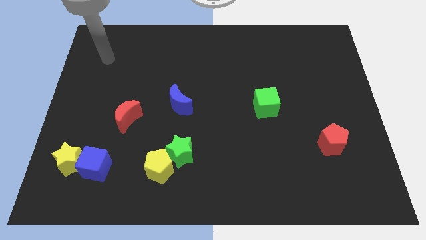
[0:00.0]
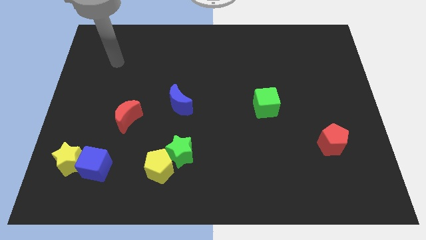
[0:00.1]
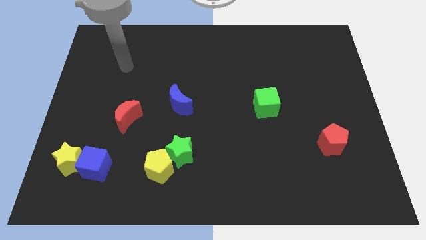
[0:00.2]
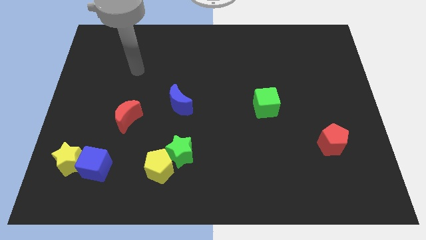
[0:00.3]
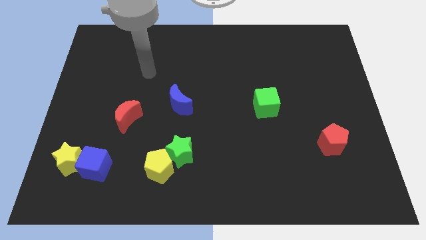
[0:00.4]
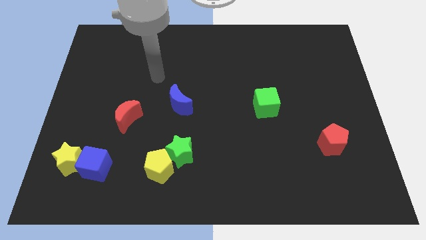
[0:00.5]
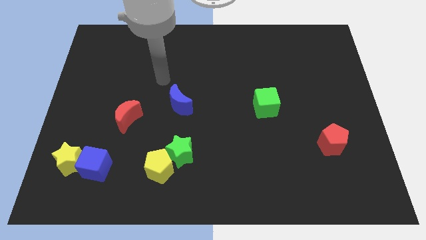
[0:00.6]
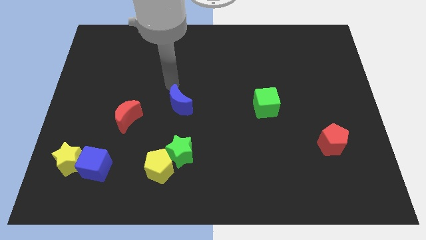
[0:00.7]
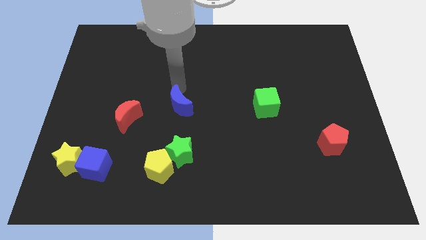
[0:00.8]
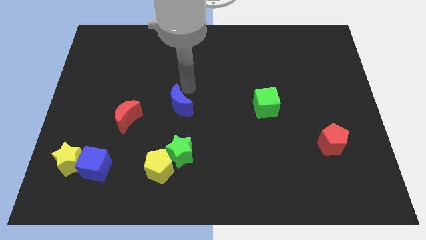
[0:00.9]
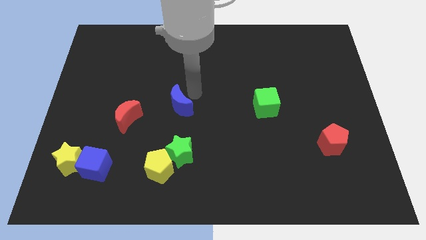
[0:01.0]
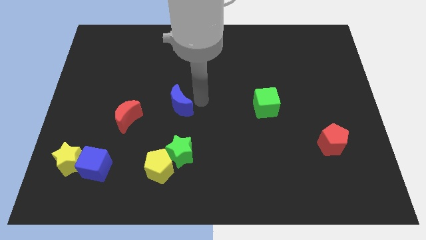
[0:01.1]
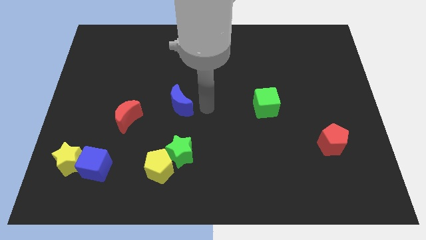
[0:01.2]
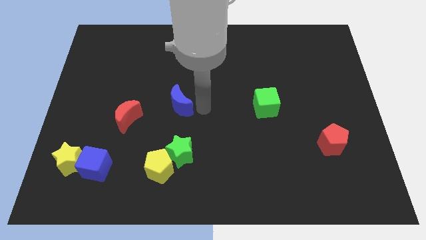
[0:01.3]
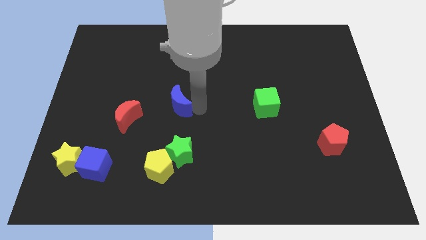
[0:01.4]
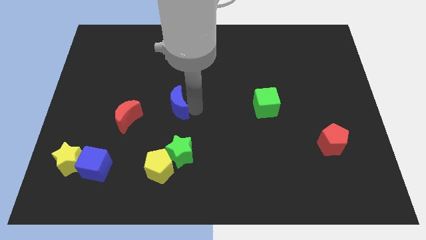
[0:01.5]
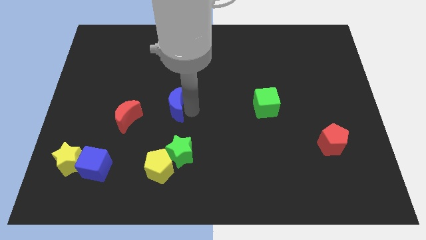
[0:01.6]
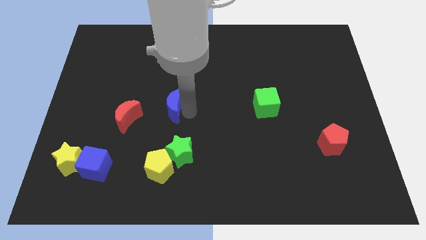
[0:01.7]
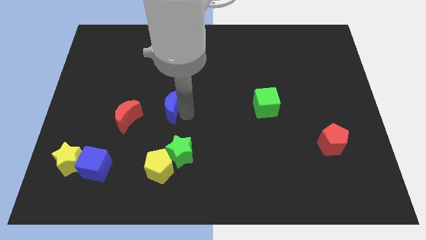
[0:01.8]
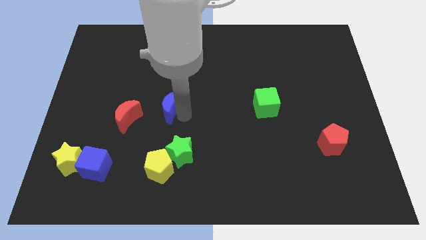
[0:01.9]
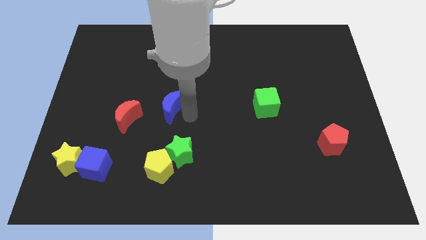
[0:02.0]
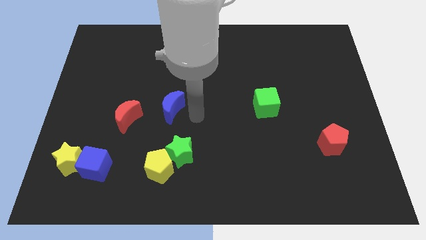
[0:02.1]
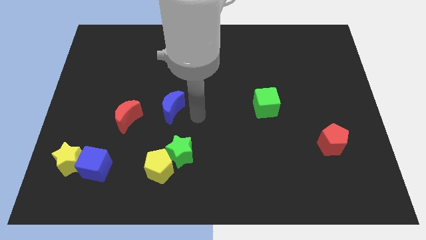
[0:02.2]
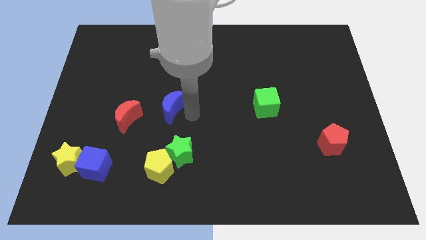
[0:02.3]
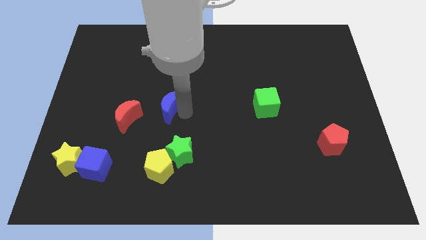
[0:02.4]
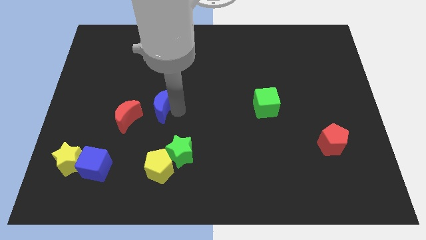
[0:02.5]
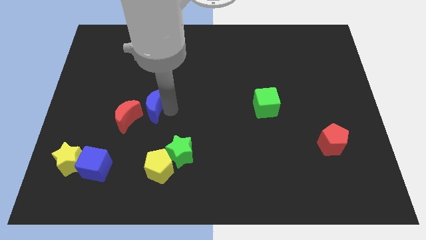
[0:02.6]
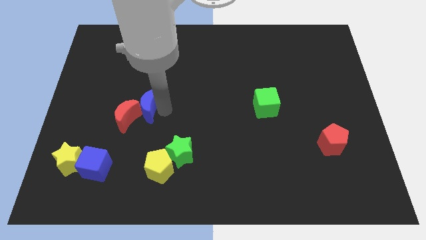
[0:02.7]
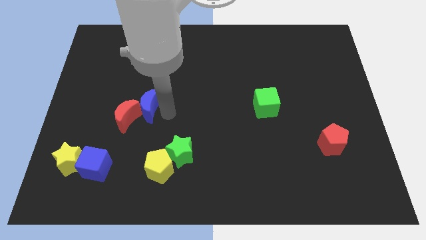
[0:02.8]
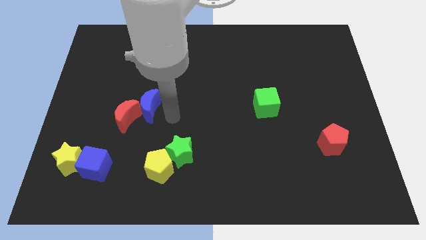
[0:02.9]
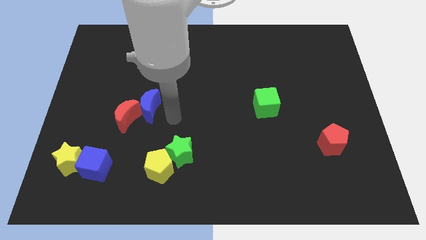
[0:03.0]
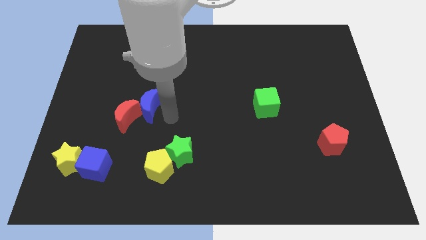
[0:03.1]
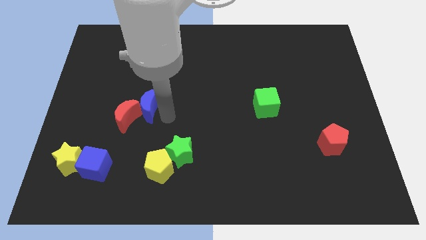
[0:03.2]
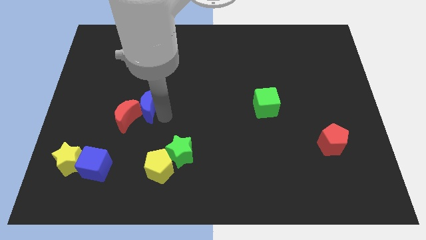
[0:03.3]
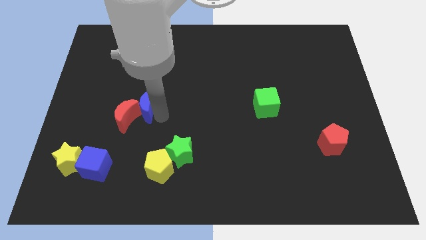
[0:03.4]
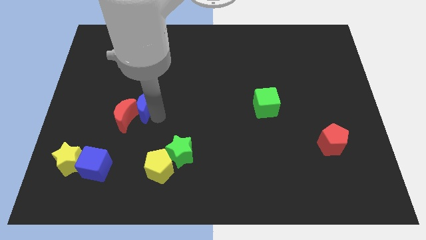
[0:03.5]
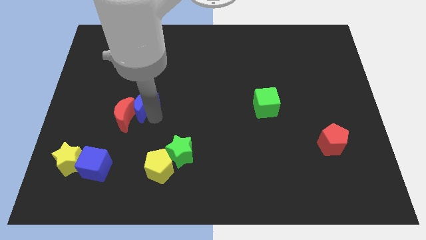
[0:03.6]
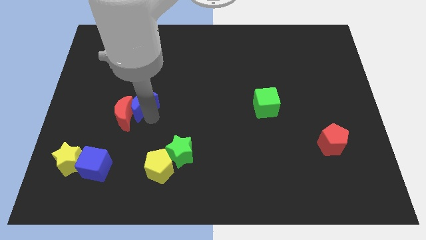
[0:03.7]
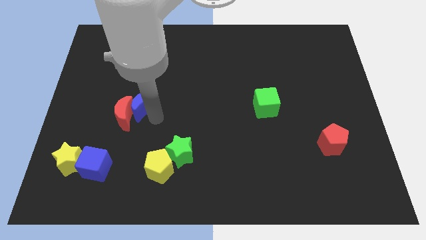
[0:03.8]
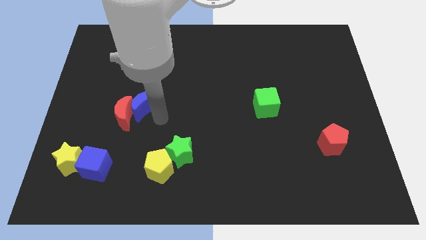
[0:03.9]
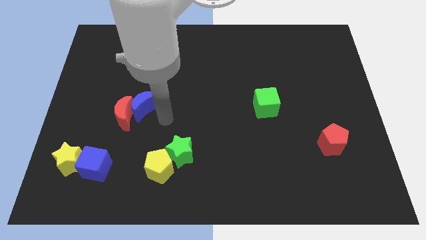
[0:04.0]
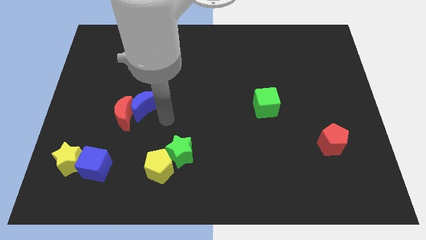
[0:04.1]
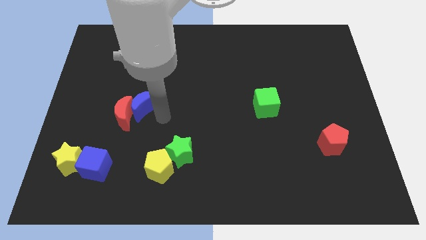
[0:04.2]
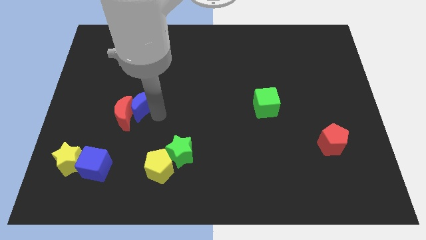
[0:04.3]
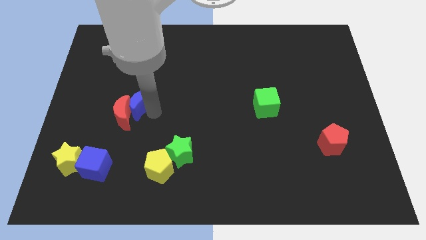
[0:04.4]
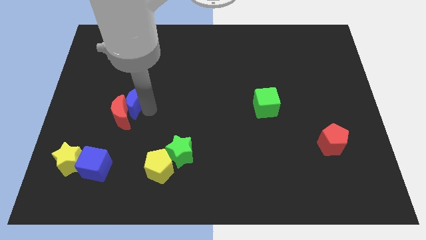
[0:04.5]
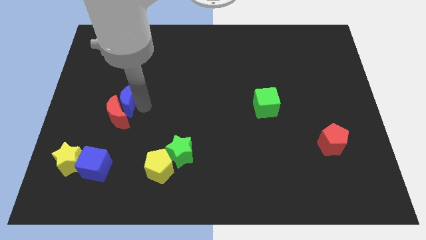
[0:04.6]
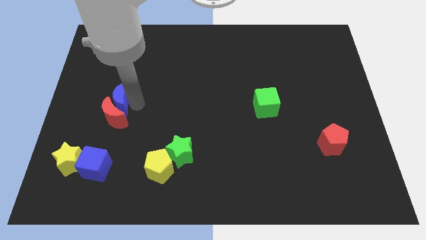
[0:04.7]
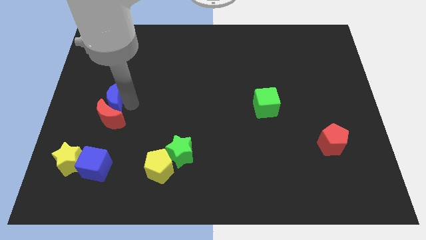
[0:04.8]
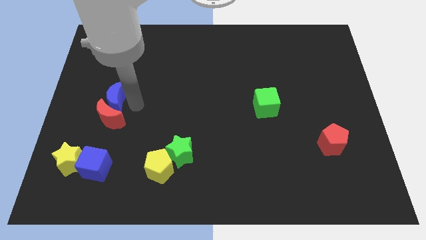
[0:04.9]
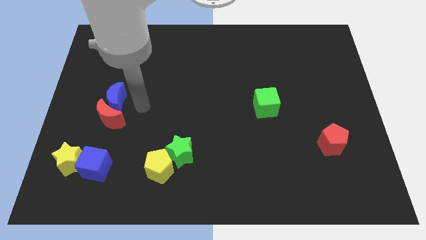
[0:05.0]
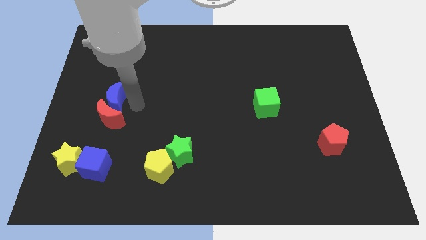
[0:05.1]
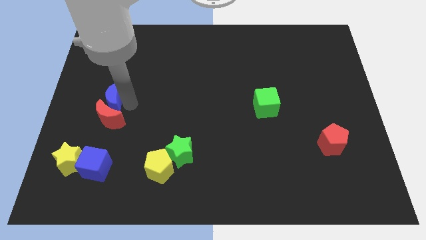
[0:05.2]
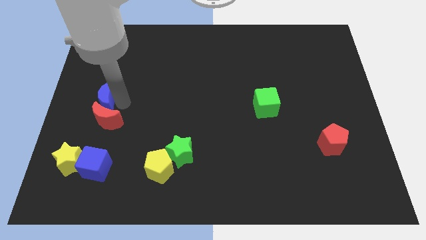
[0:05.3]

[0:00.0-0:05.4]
slide the blue moon to the left side of the board

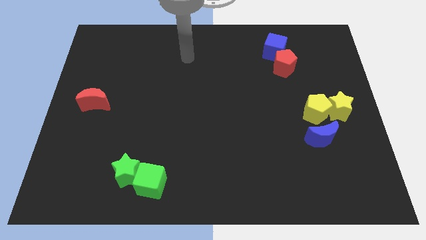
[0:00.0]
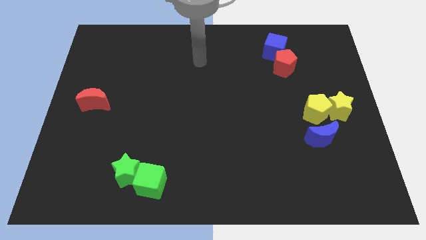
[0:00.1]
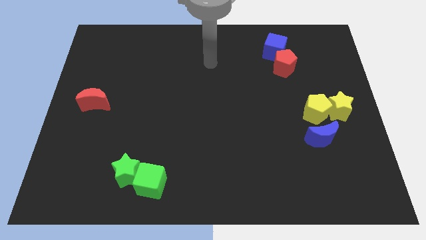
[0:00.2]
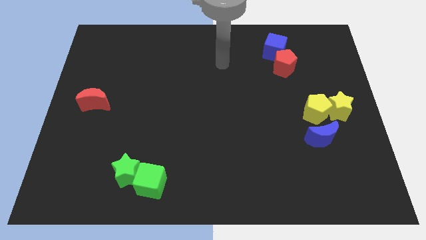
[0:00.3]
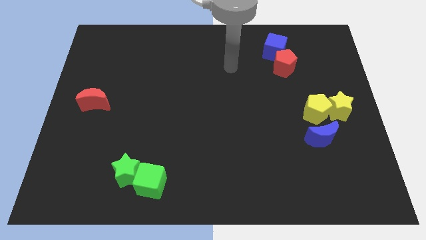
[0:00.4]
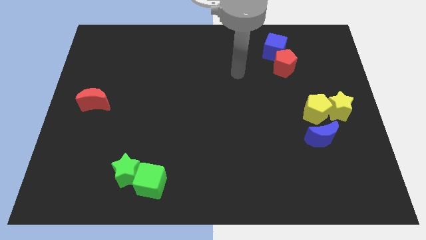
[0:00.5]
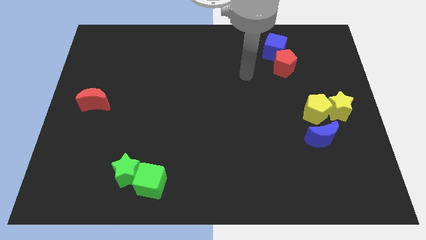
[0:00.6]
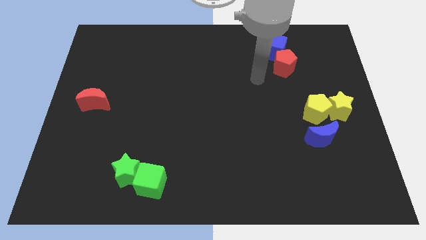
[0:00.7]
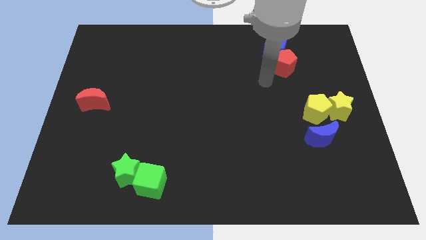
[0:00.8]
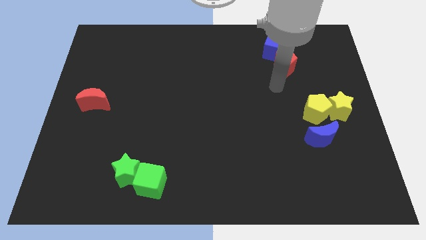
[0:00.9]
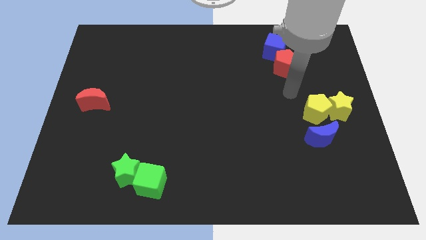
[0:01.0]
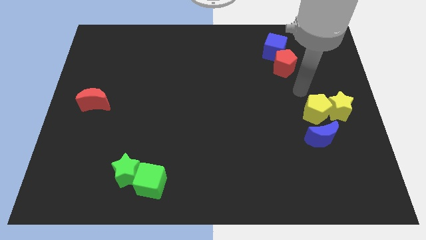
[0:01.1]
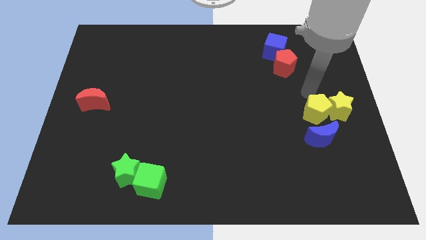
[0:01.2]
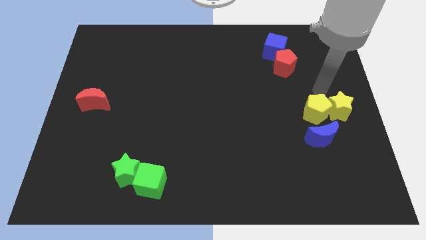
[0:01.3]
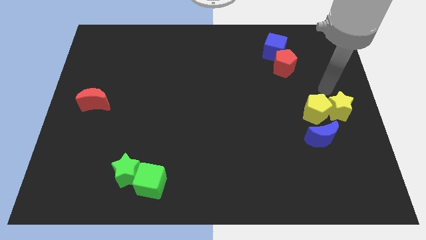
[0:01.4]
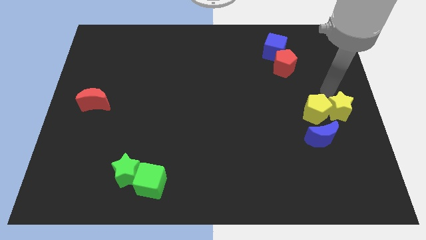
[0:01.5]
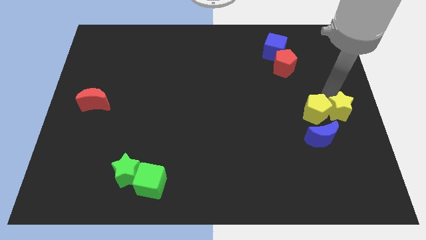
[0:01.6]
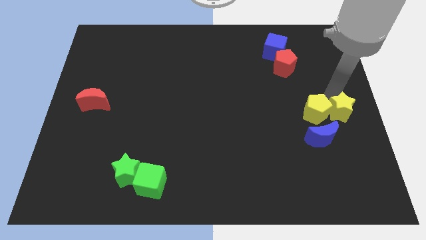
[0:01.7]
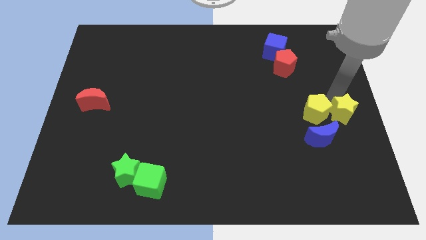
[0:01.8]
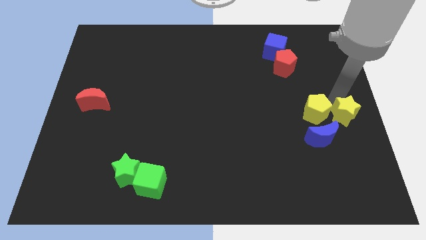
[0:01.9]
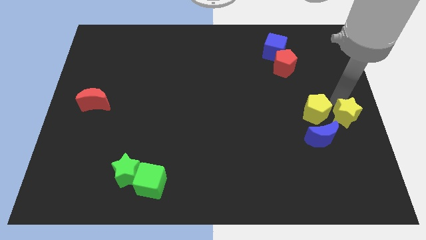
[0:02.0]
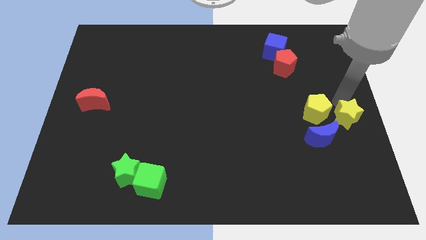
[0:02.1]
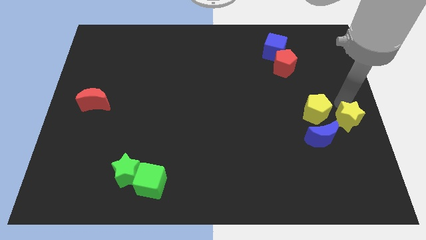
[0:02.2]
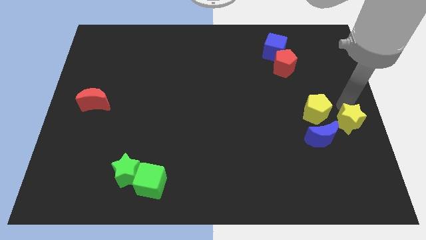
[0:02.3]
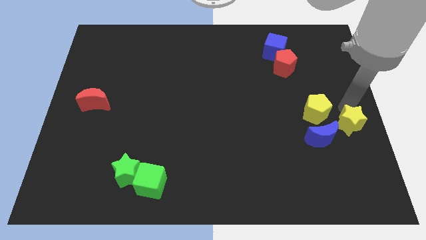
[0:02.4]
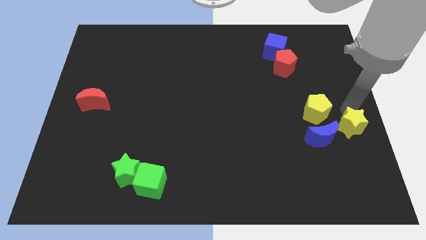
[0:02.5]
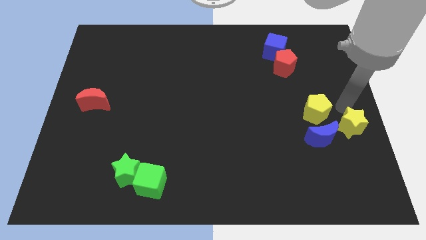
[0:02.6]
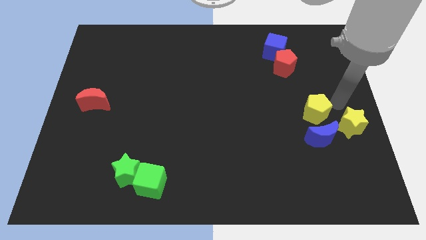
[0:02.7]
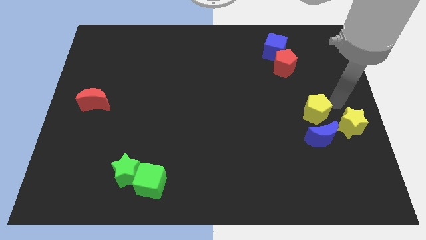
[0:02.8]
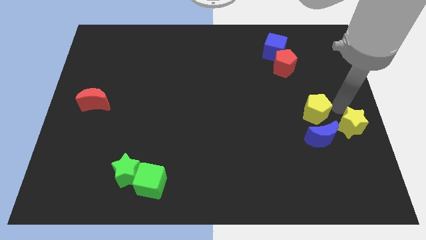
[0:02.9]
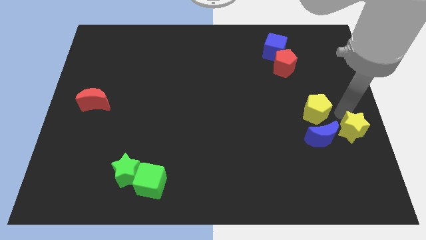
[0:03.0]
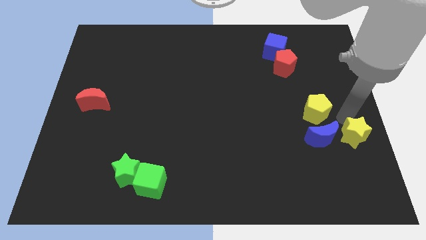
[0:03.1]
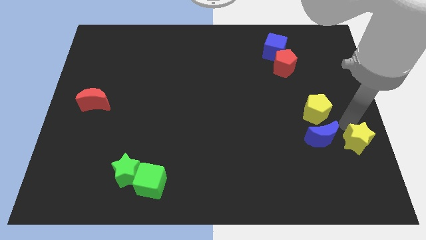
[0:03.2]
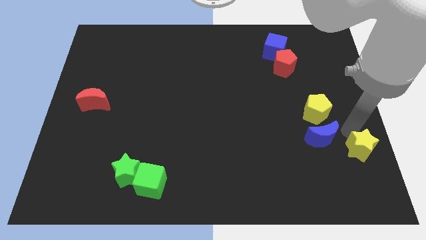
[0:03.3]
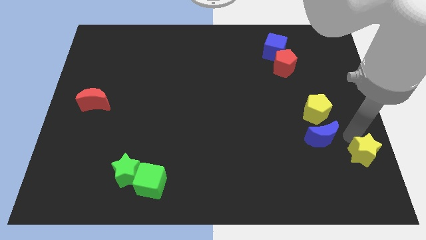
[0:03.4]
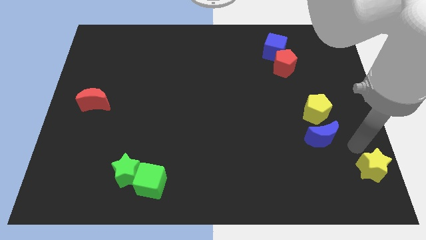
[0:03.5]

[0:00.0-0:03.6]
push the yellow star to the bottom right of the board
